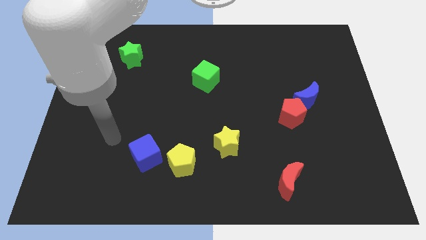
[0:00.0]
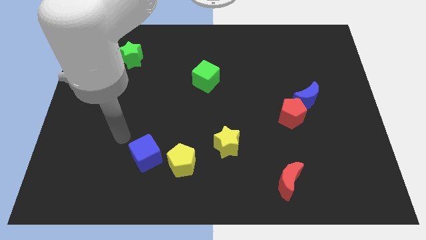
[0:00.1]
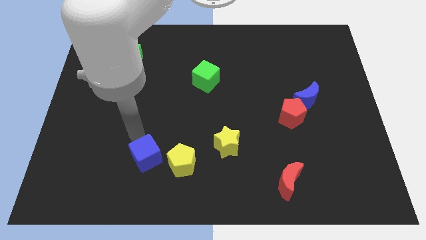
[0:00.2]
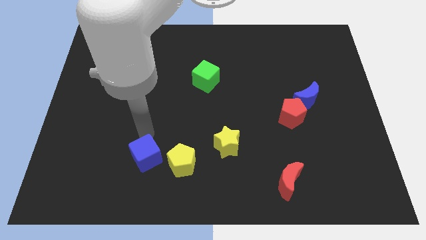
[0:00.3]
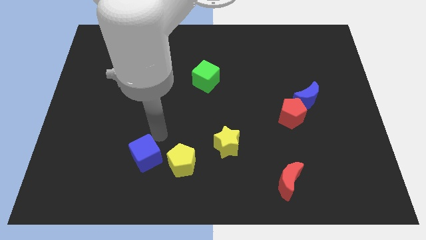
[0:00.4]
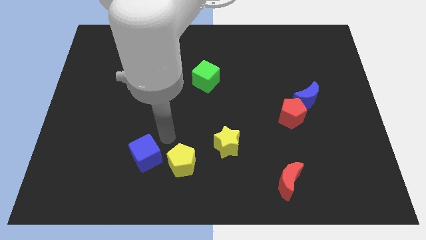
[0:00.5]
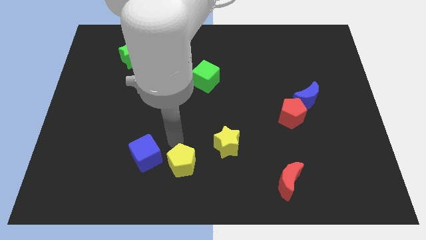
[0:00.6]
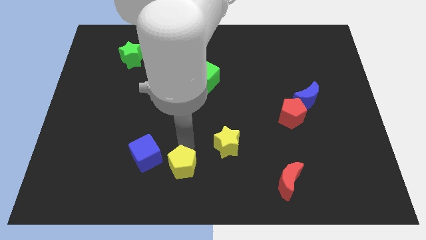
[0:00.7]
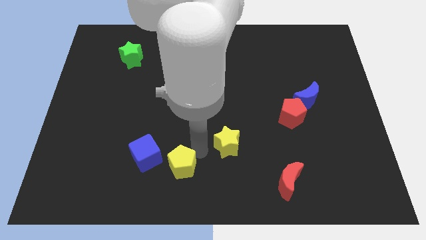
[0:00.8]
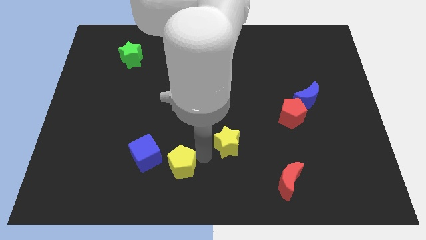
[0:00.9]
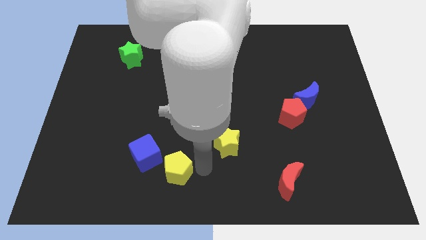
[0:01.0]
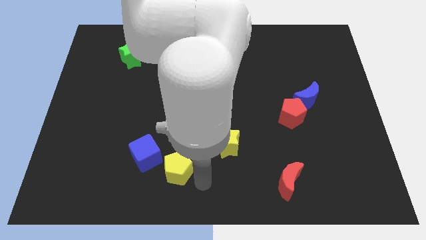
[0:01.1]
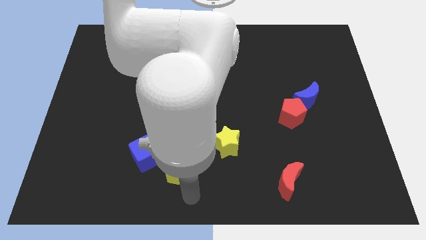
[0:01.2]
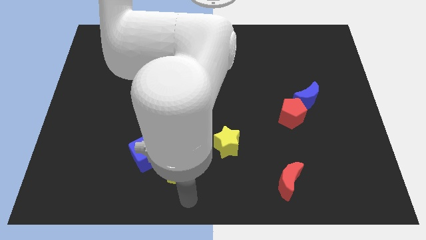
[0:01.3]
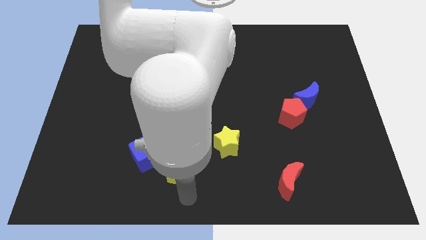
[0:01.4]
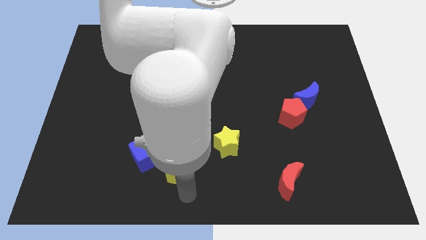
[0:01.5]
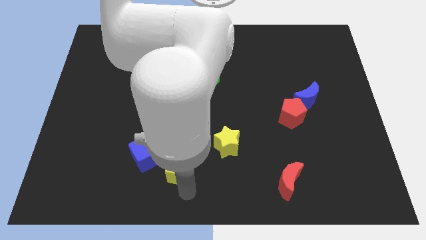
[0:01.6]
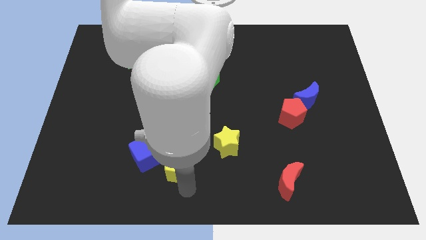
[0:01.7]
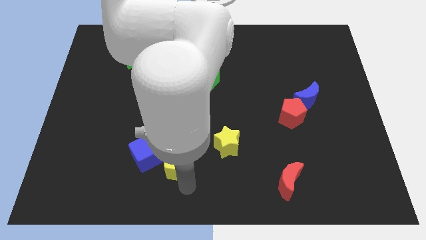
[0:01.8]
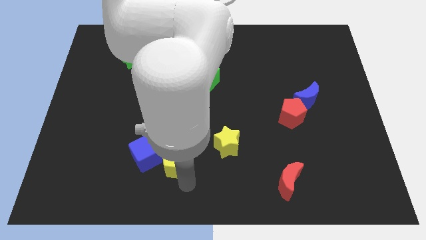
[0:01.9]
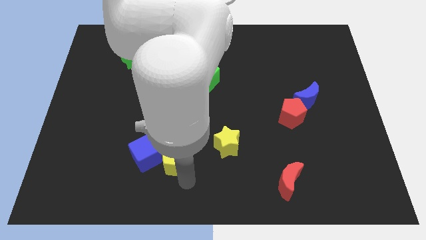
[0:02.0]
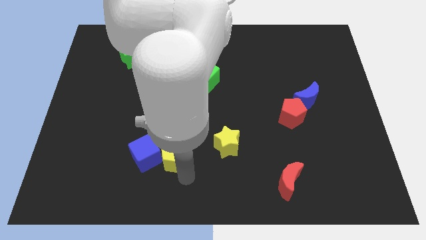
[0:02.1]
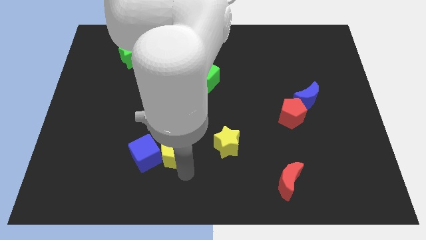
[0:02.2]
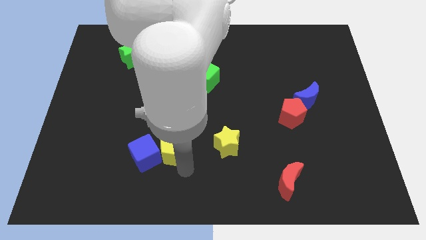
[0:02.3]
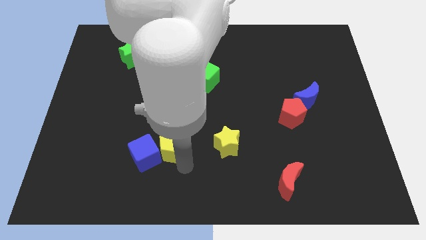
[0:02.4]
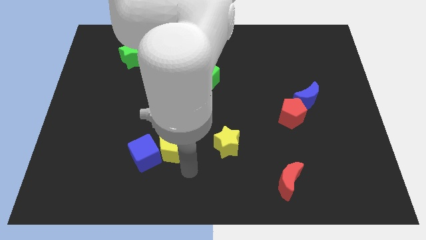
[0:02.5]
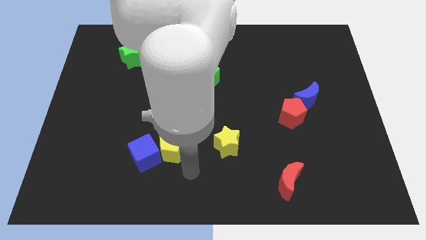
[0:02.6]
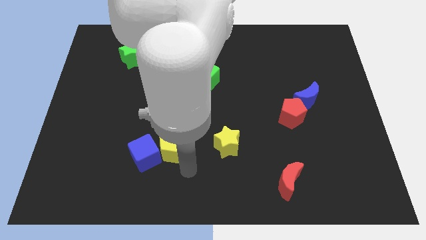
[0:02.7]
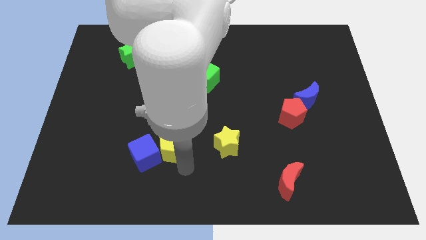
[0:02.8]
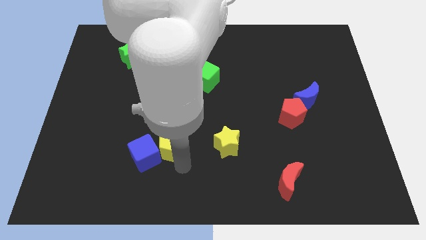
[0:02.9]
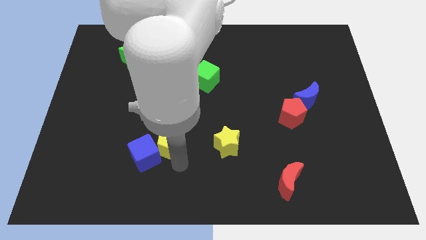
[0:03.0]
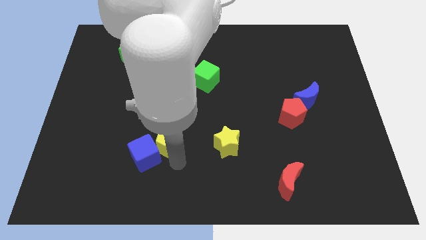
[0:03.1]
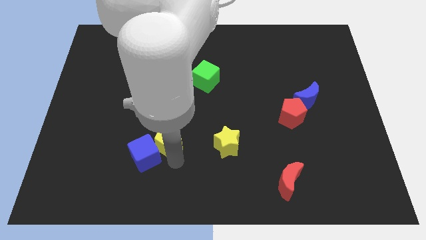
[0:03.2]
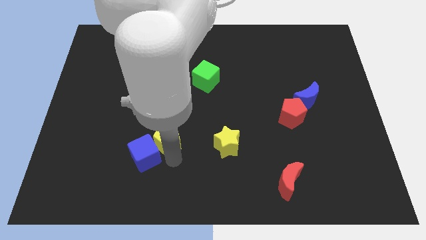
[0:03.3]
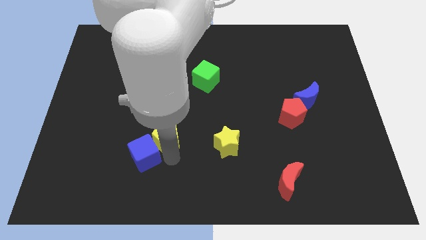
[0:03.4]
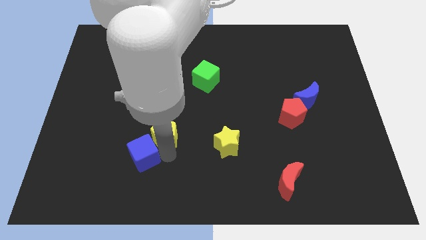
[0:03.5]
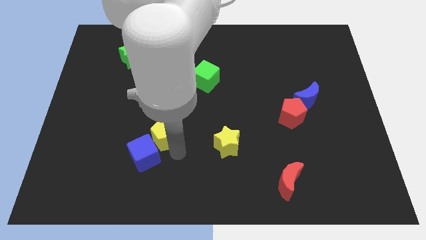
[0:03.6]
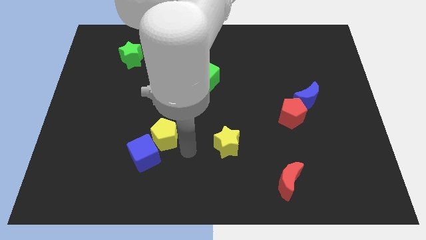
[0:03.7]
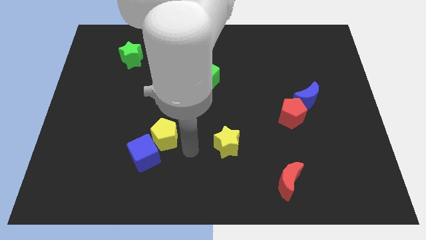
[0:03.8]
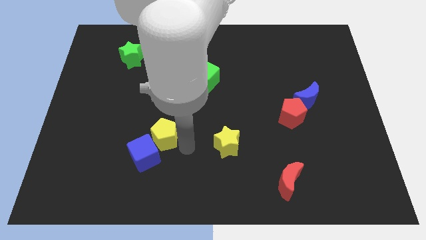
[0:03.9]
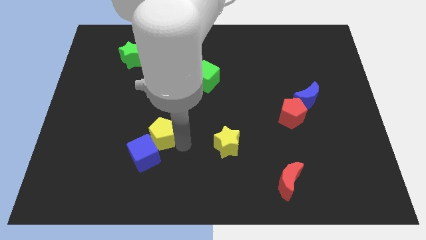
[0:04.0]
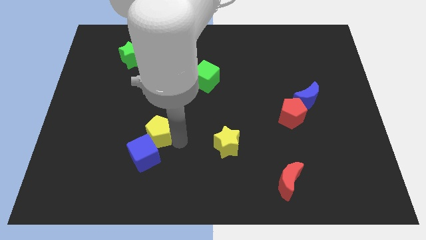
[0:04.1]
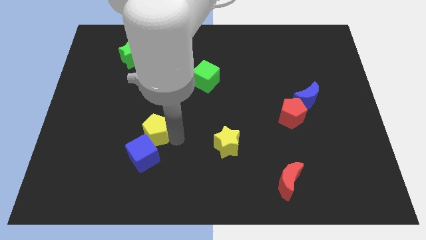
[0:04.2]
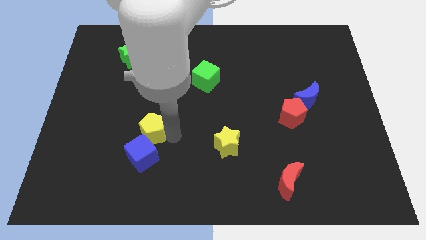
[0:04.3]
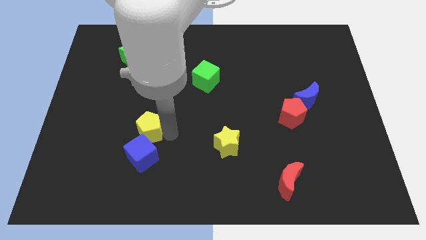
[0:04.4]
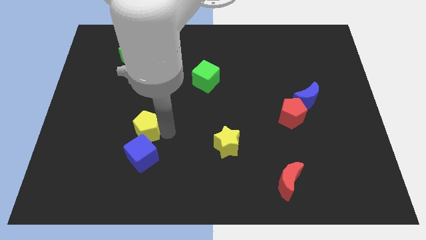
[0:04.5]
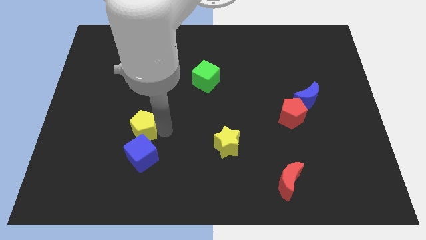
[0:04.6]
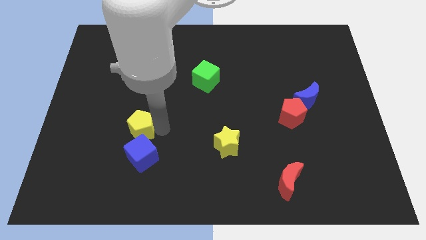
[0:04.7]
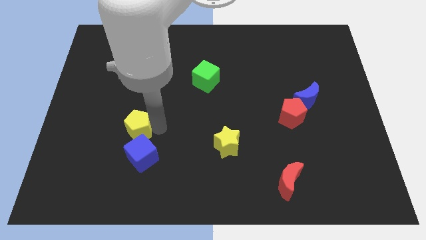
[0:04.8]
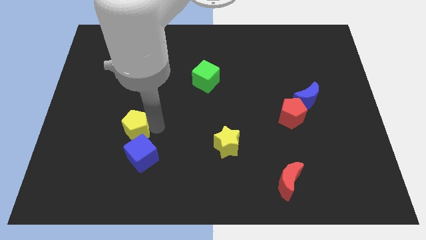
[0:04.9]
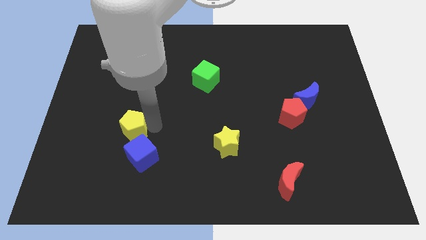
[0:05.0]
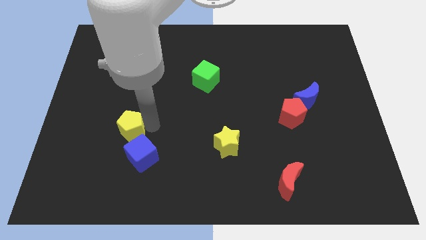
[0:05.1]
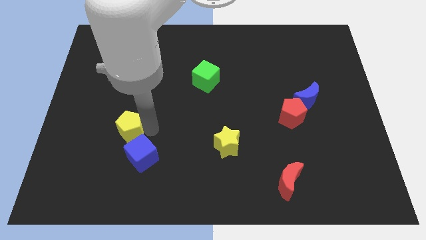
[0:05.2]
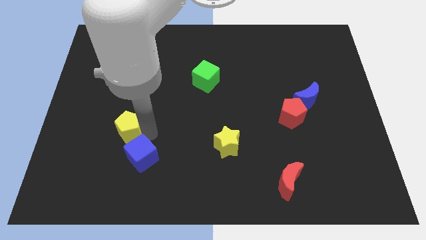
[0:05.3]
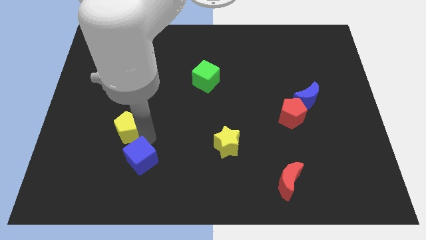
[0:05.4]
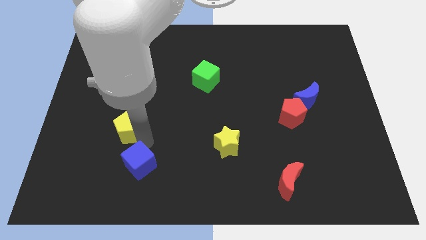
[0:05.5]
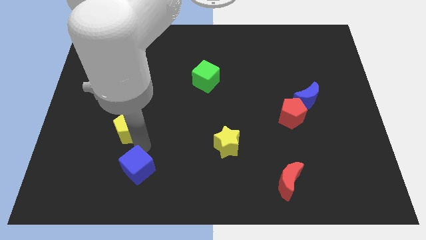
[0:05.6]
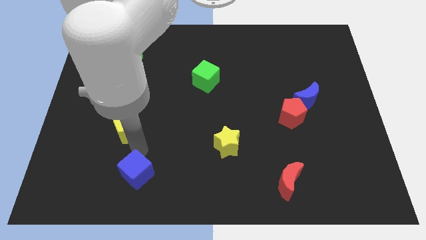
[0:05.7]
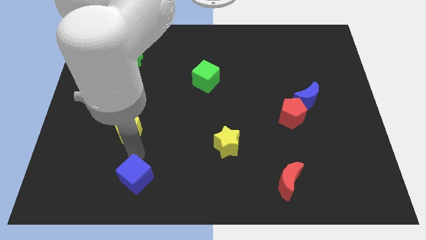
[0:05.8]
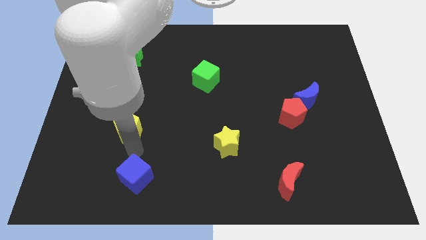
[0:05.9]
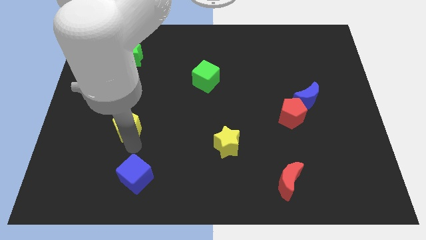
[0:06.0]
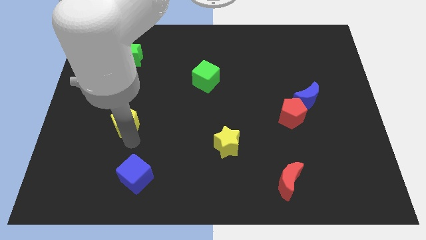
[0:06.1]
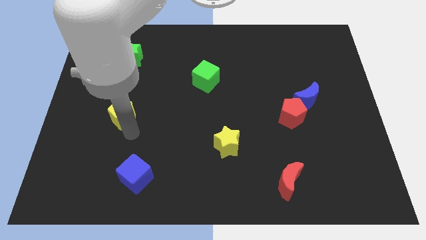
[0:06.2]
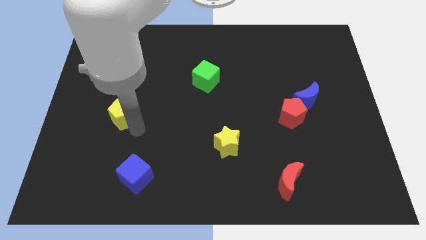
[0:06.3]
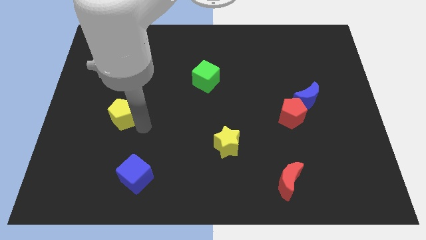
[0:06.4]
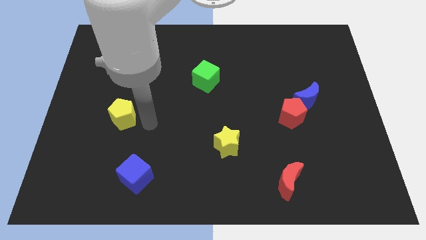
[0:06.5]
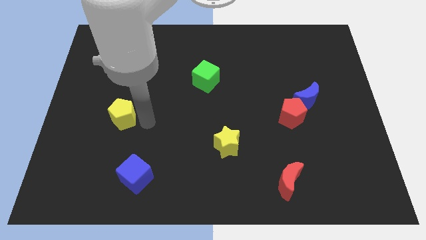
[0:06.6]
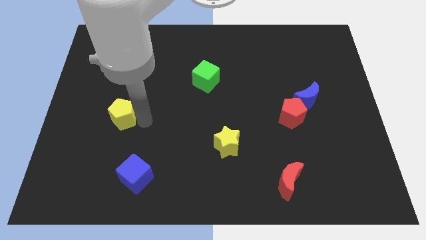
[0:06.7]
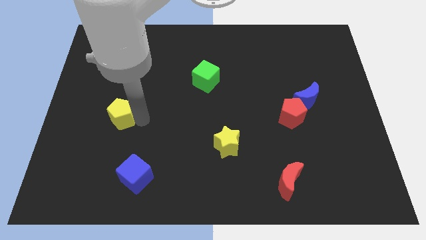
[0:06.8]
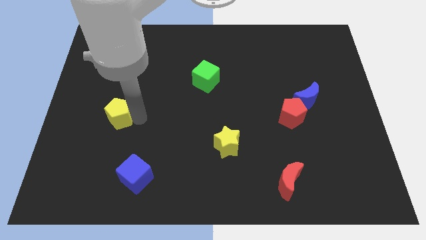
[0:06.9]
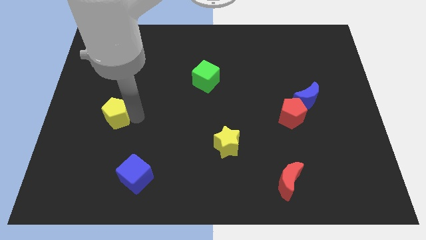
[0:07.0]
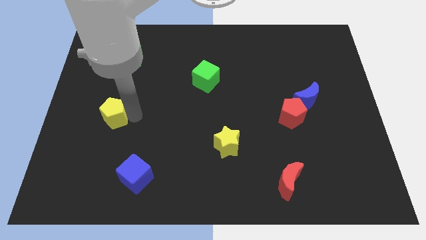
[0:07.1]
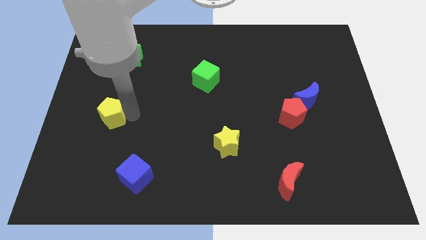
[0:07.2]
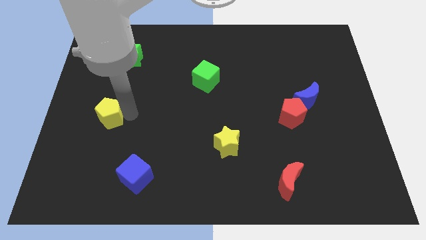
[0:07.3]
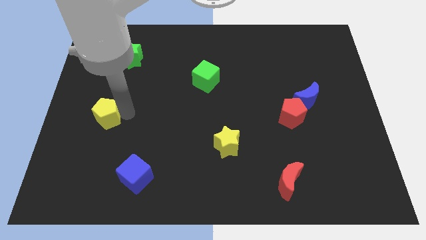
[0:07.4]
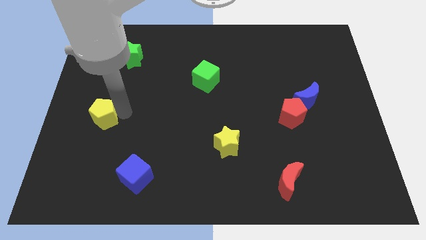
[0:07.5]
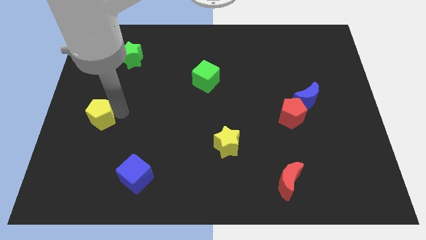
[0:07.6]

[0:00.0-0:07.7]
move the yellow pentagon to the left side of the board

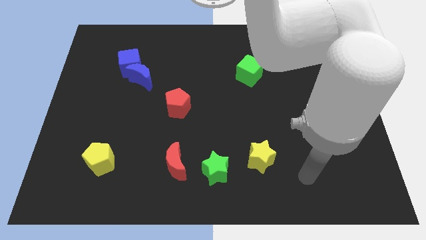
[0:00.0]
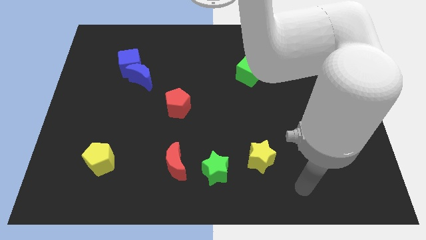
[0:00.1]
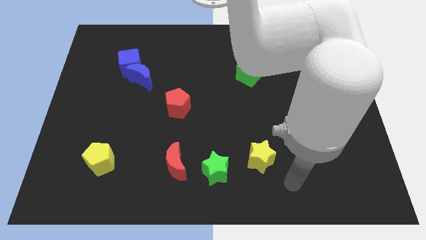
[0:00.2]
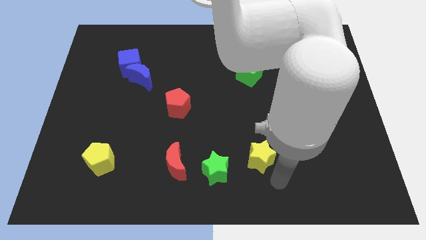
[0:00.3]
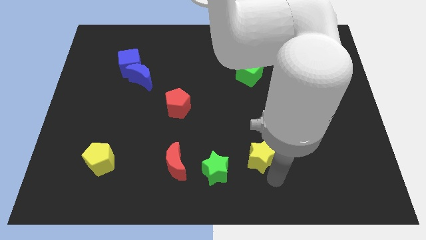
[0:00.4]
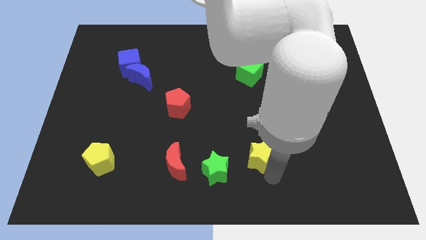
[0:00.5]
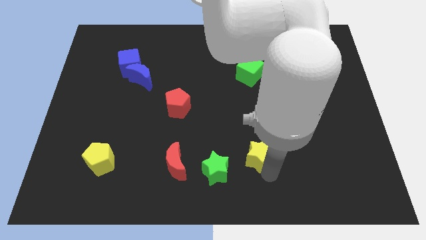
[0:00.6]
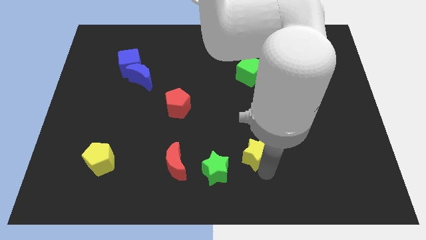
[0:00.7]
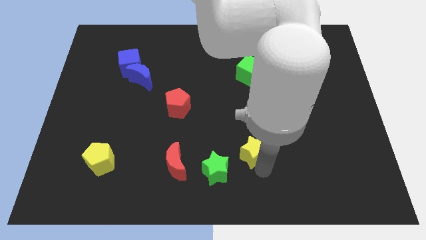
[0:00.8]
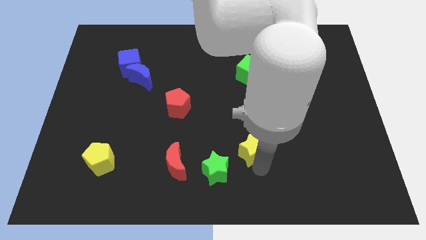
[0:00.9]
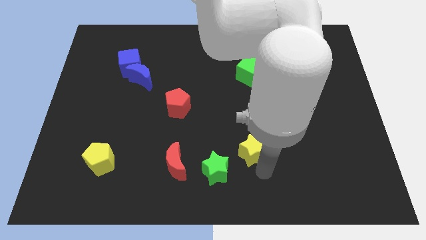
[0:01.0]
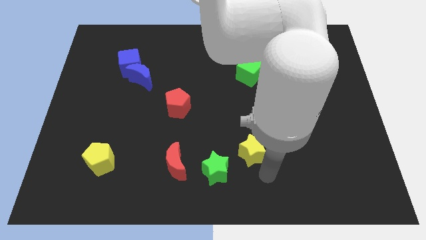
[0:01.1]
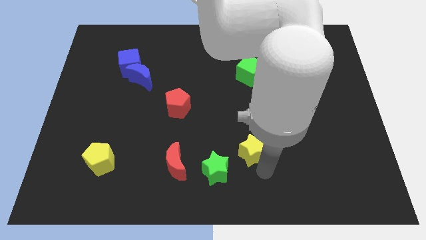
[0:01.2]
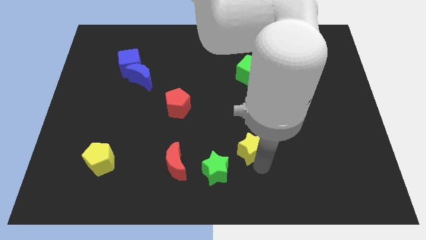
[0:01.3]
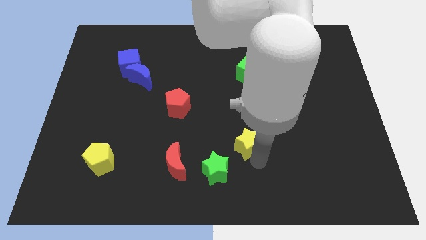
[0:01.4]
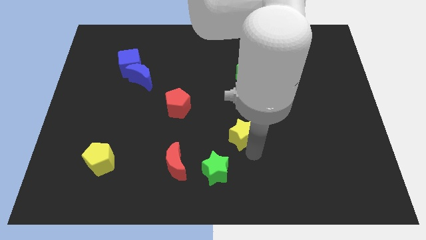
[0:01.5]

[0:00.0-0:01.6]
move the yellow star to the center of the board
